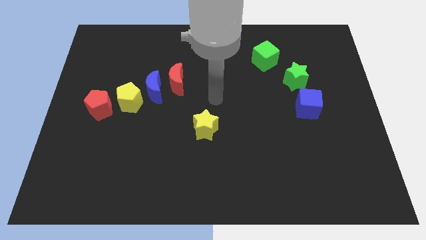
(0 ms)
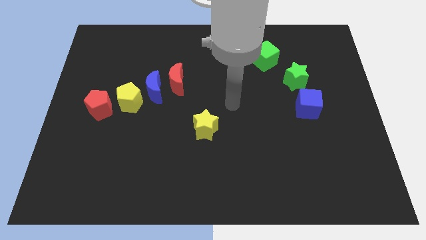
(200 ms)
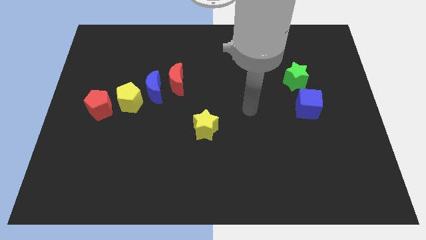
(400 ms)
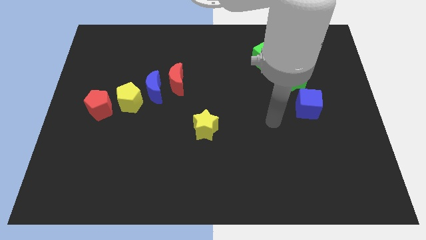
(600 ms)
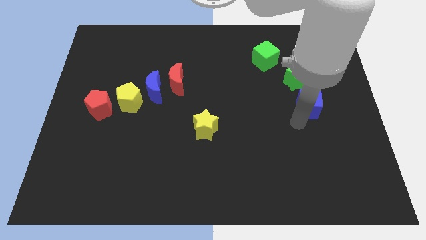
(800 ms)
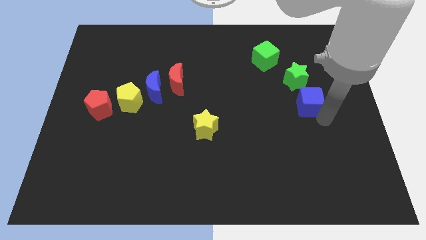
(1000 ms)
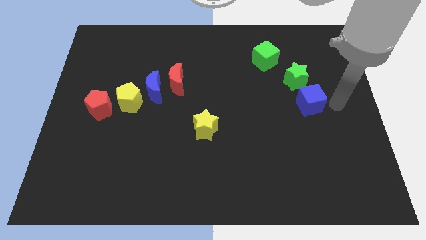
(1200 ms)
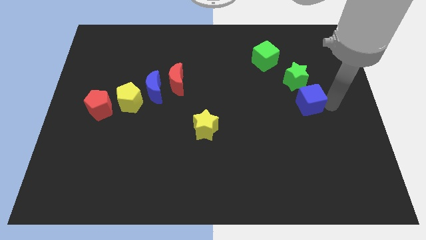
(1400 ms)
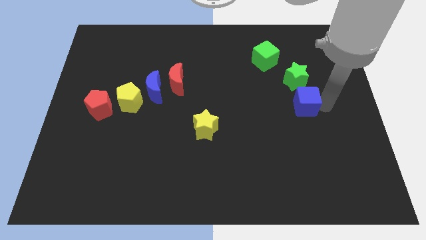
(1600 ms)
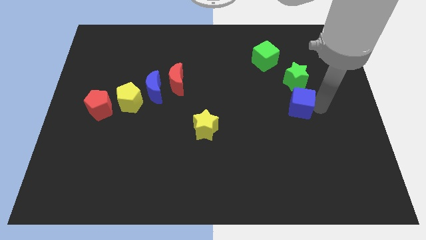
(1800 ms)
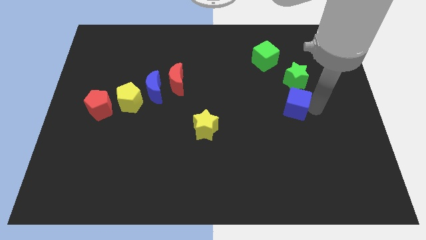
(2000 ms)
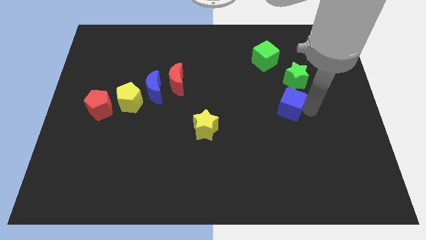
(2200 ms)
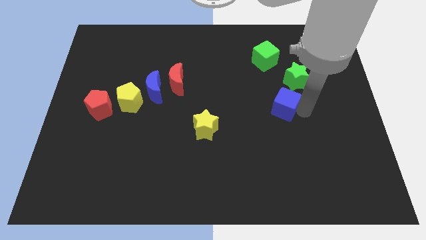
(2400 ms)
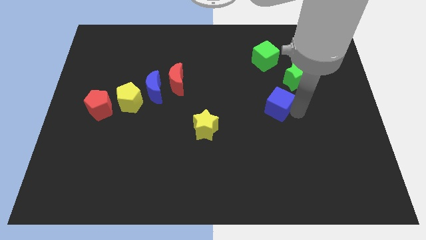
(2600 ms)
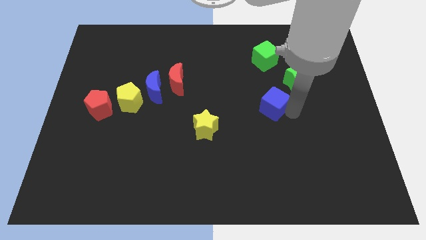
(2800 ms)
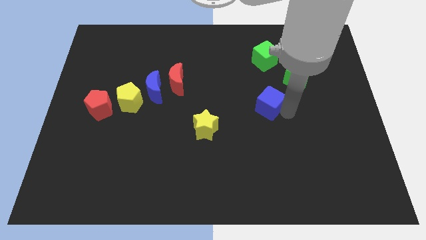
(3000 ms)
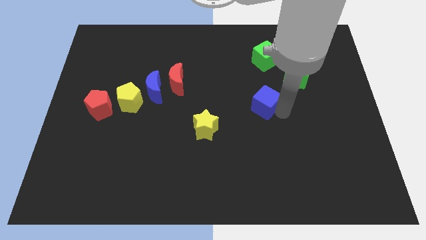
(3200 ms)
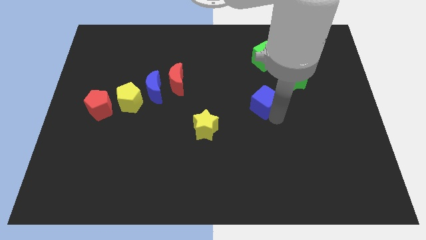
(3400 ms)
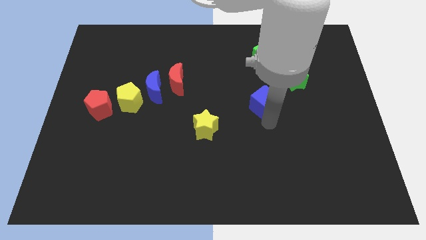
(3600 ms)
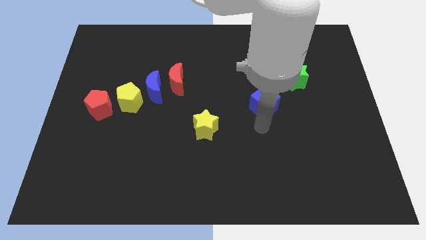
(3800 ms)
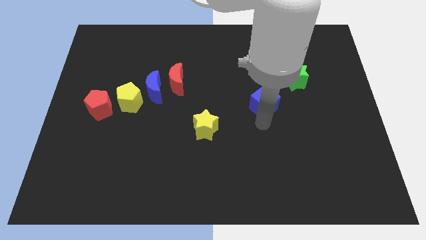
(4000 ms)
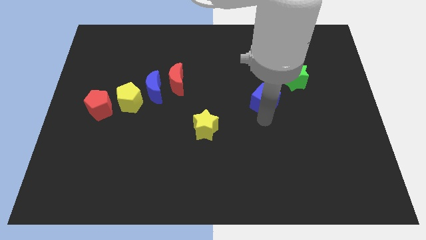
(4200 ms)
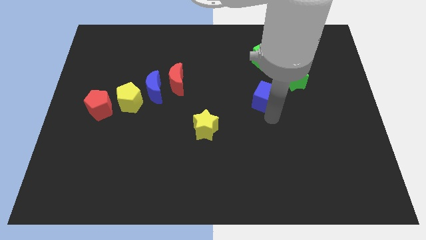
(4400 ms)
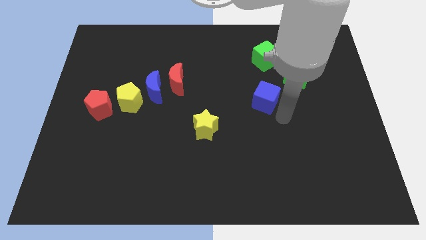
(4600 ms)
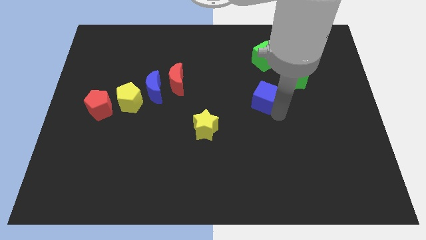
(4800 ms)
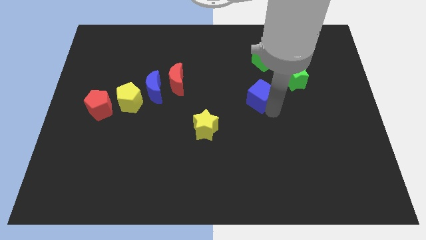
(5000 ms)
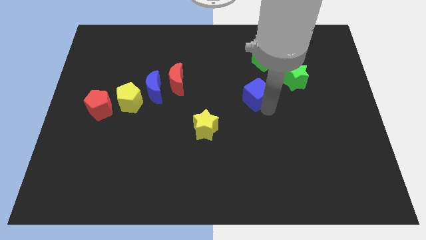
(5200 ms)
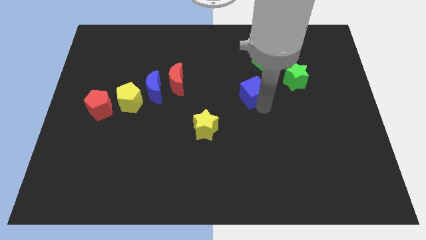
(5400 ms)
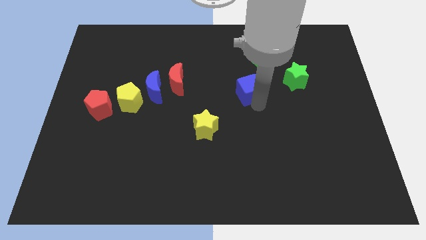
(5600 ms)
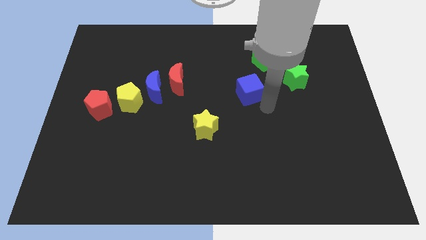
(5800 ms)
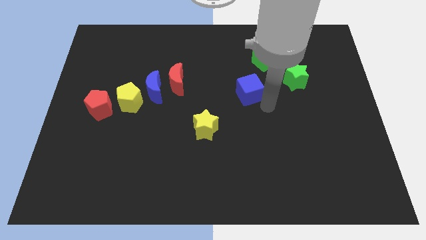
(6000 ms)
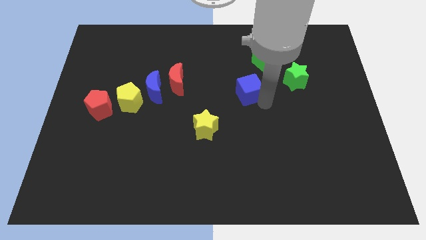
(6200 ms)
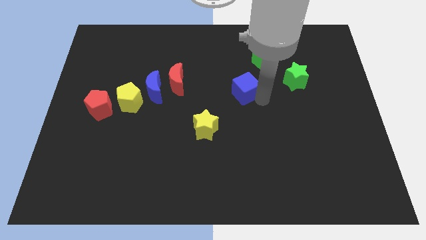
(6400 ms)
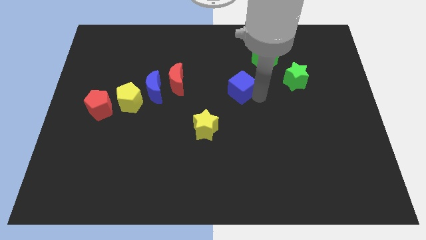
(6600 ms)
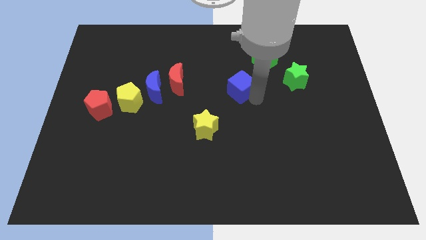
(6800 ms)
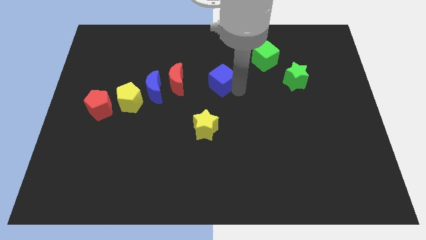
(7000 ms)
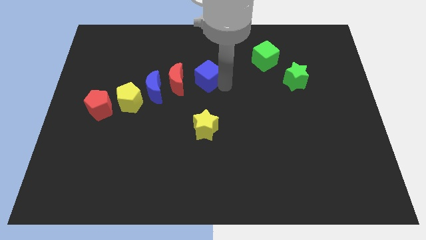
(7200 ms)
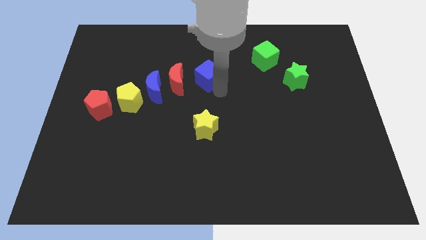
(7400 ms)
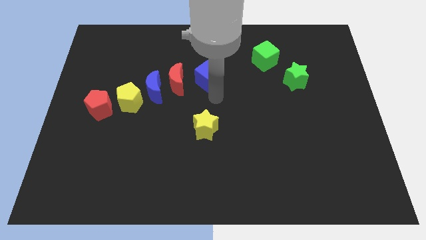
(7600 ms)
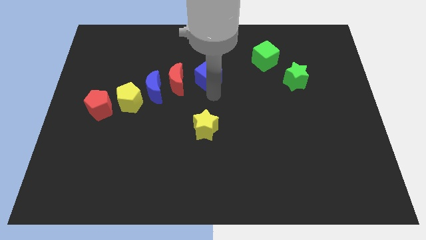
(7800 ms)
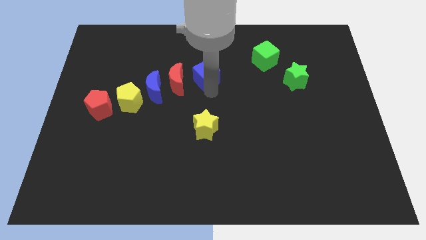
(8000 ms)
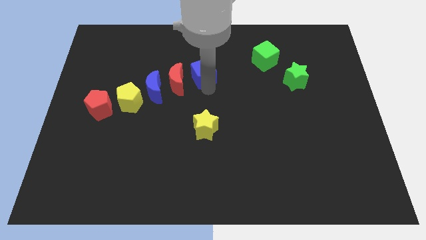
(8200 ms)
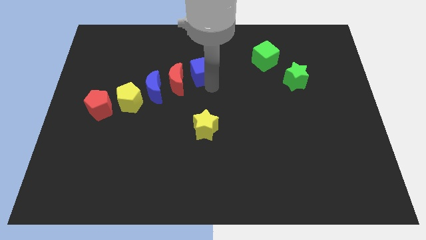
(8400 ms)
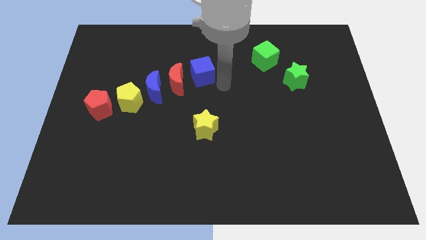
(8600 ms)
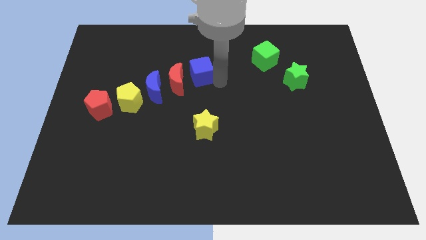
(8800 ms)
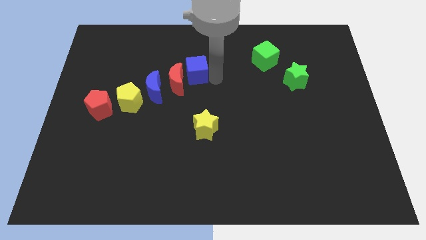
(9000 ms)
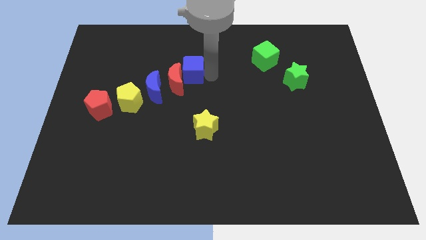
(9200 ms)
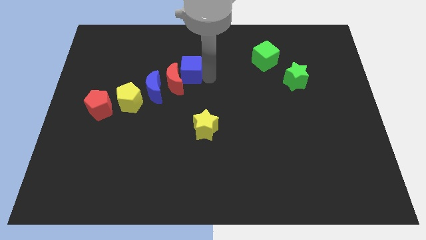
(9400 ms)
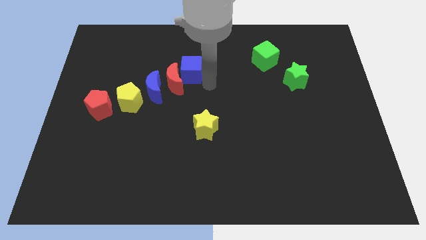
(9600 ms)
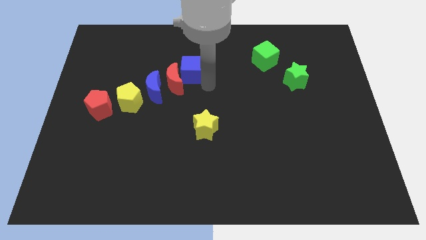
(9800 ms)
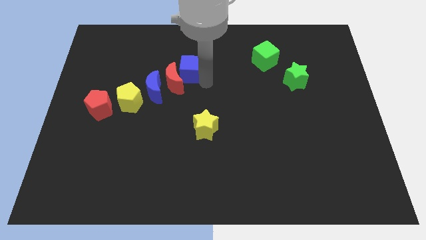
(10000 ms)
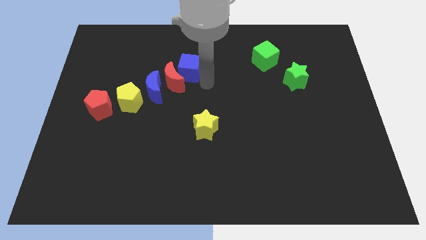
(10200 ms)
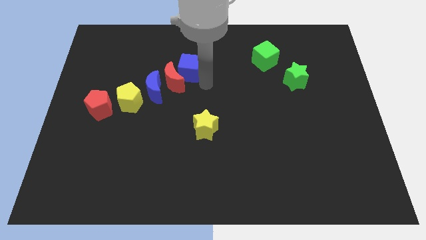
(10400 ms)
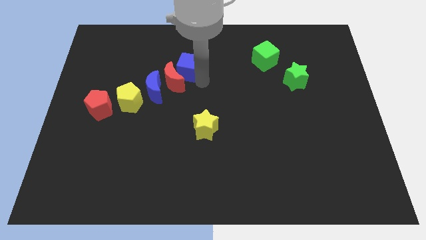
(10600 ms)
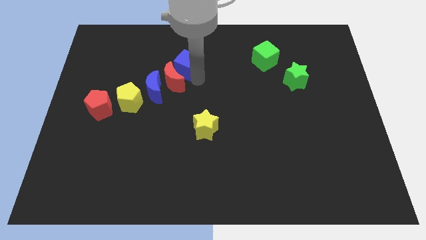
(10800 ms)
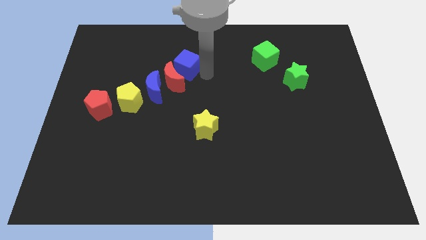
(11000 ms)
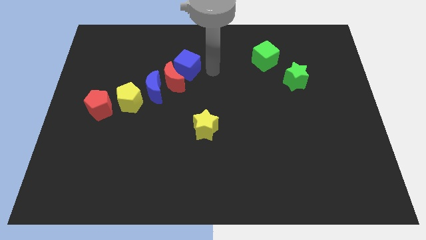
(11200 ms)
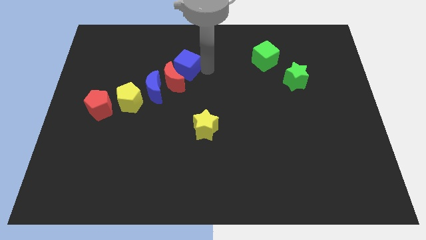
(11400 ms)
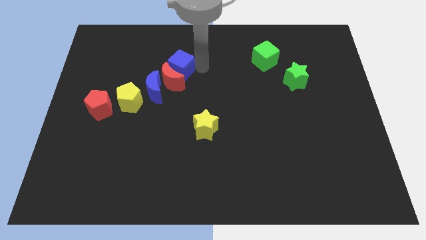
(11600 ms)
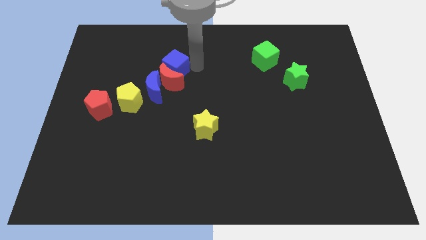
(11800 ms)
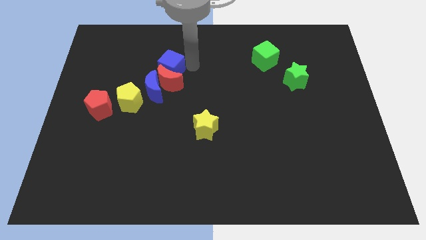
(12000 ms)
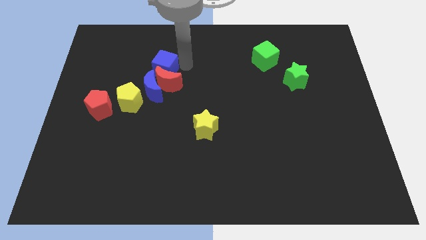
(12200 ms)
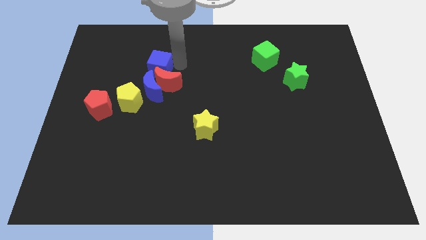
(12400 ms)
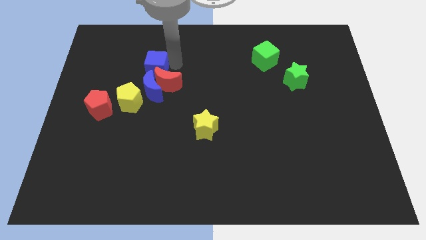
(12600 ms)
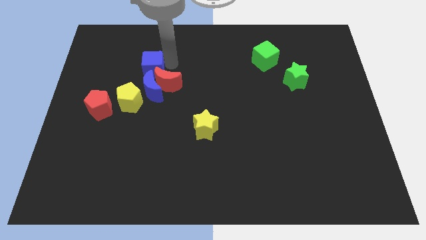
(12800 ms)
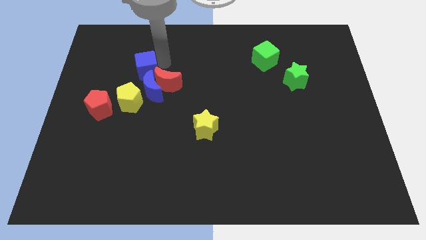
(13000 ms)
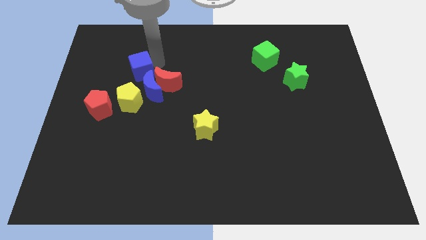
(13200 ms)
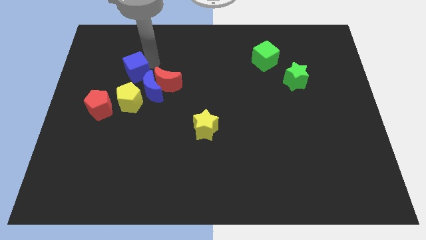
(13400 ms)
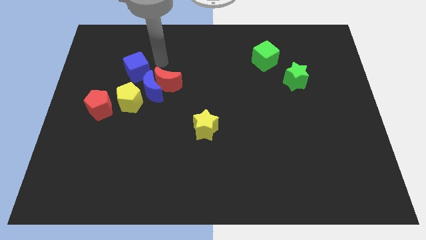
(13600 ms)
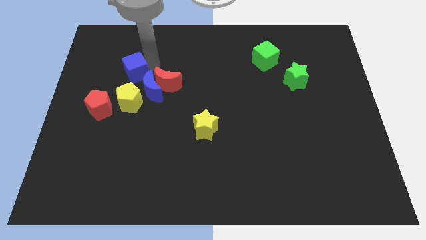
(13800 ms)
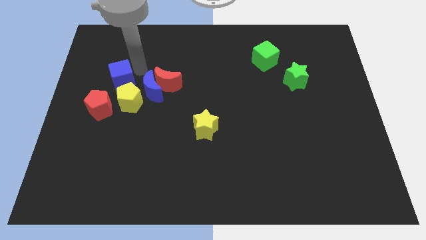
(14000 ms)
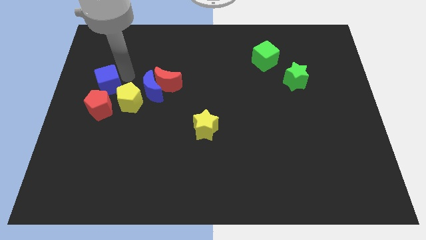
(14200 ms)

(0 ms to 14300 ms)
move the blue cube to the left side of the board
